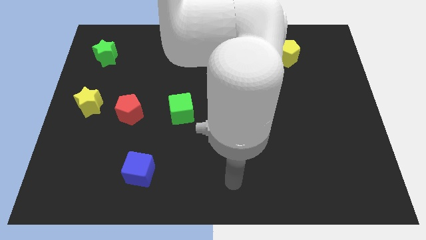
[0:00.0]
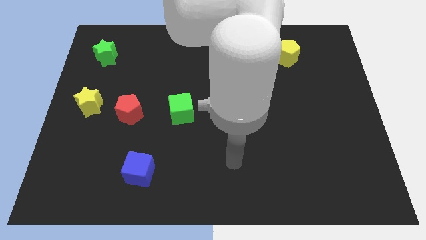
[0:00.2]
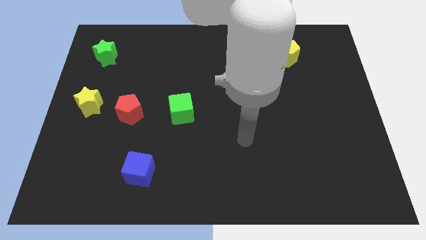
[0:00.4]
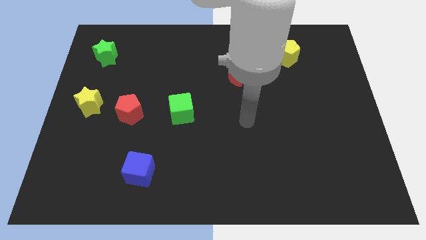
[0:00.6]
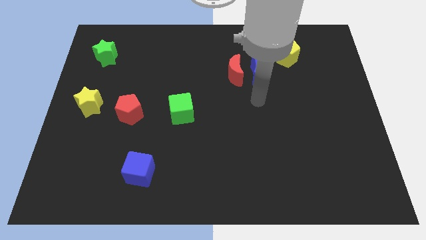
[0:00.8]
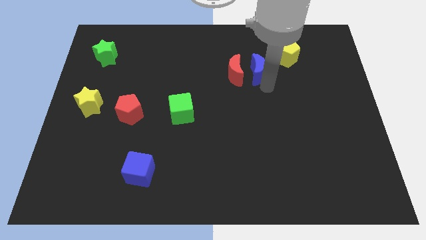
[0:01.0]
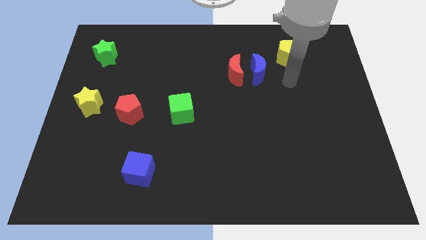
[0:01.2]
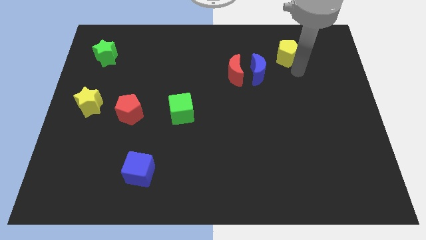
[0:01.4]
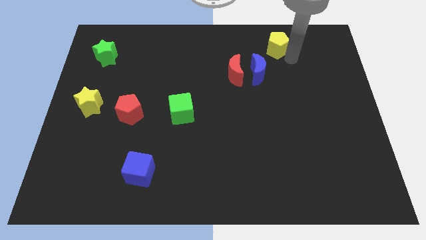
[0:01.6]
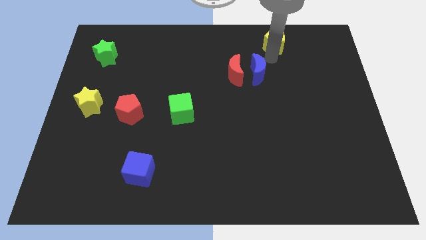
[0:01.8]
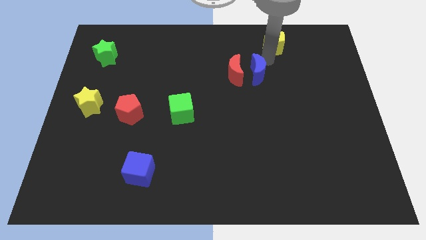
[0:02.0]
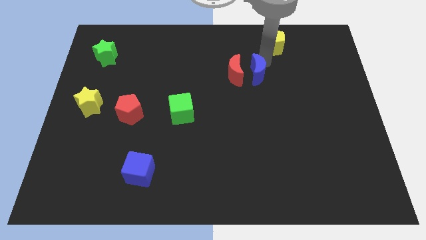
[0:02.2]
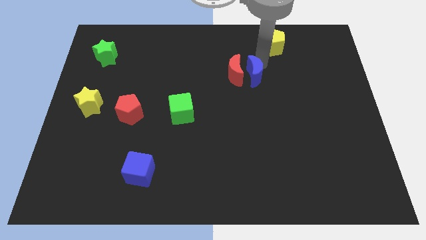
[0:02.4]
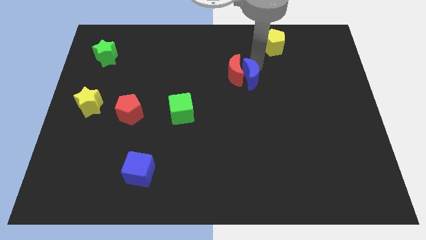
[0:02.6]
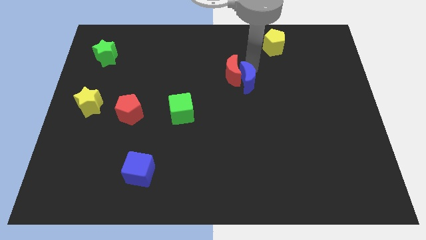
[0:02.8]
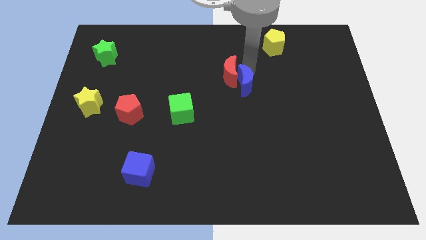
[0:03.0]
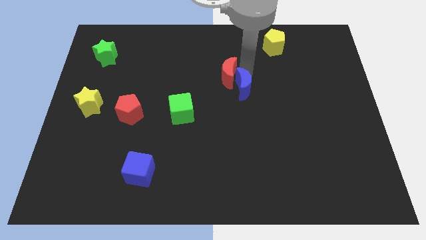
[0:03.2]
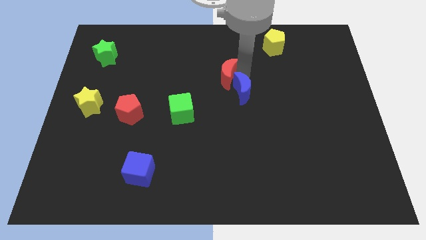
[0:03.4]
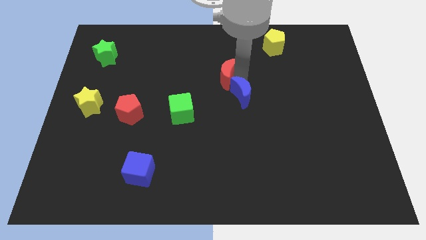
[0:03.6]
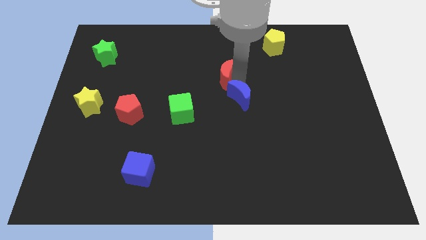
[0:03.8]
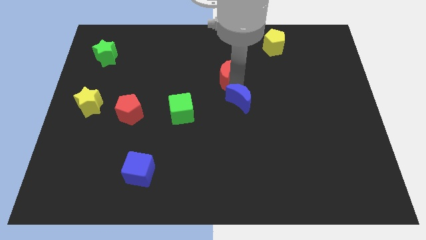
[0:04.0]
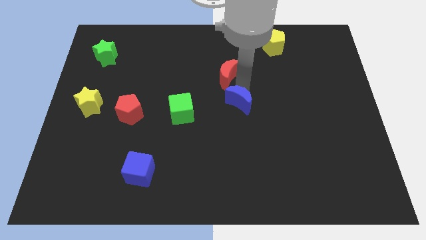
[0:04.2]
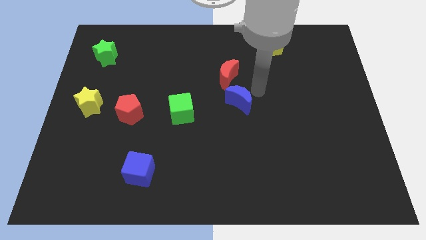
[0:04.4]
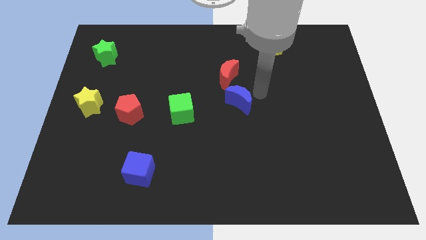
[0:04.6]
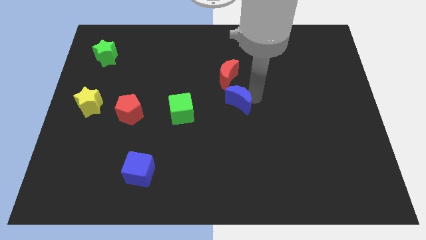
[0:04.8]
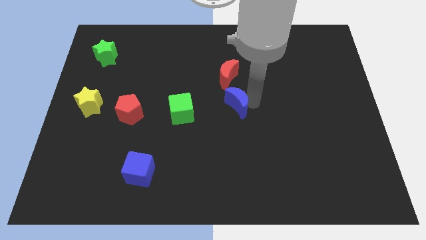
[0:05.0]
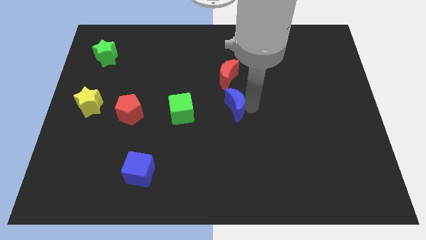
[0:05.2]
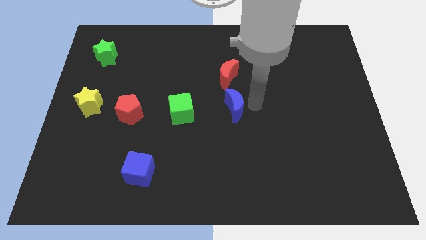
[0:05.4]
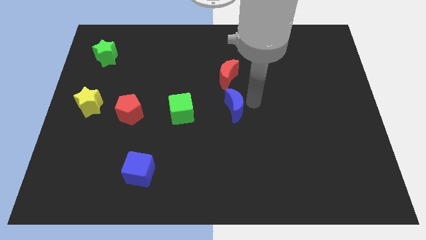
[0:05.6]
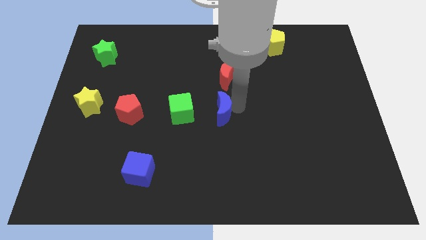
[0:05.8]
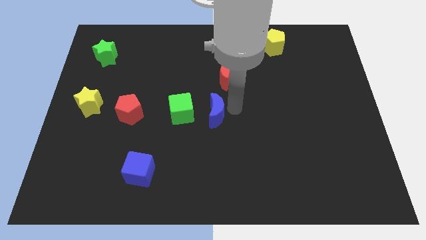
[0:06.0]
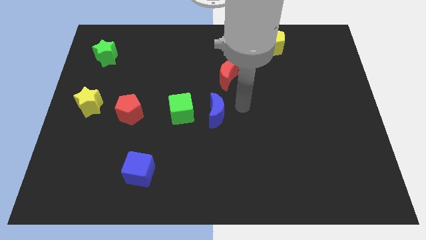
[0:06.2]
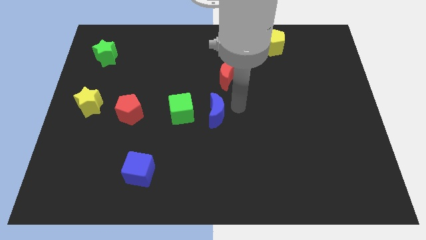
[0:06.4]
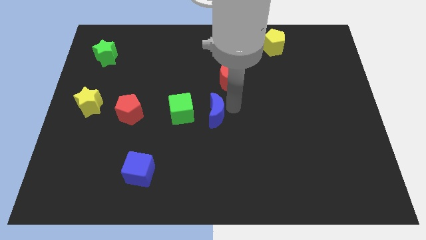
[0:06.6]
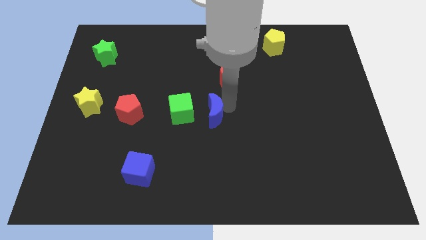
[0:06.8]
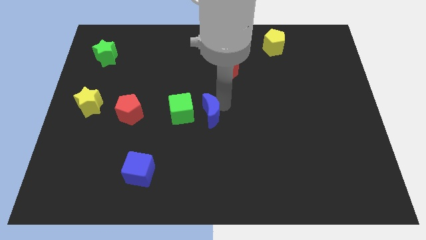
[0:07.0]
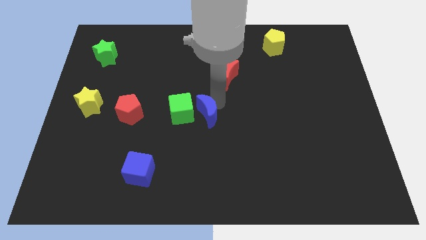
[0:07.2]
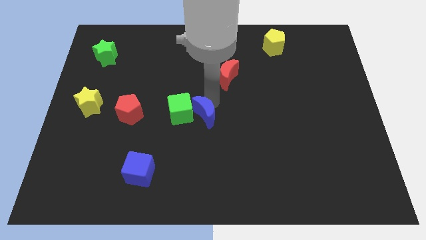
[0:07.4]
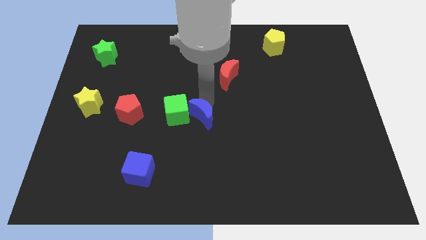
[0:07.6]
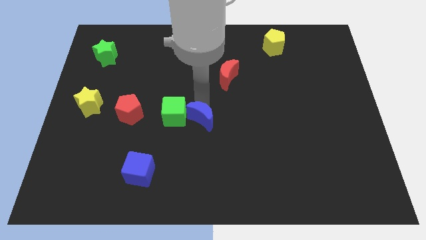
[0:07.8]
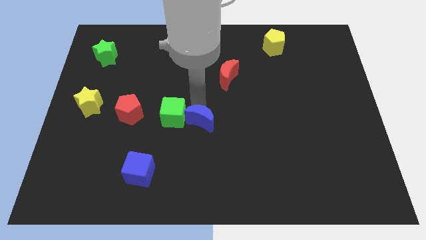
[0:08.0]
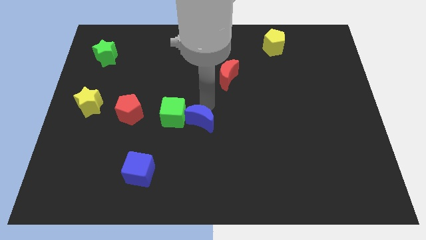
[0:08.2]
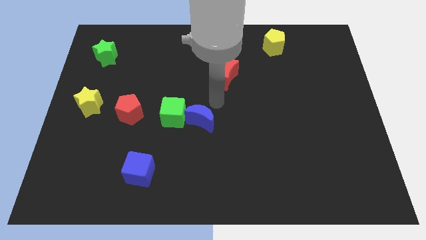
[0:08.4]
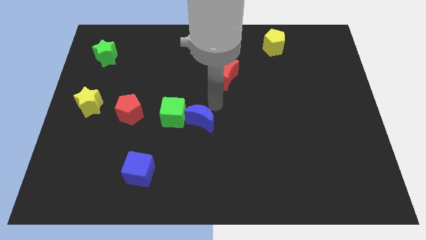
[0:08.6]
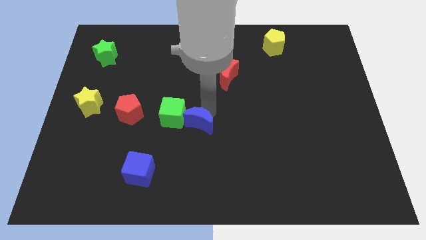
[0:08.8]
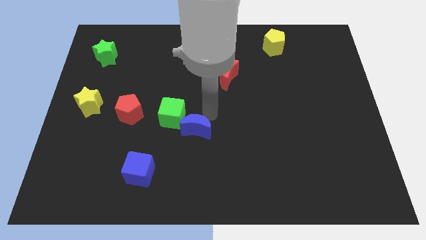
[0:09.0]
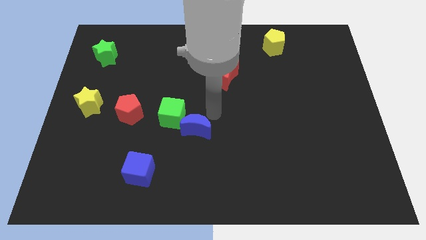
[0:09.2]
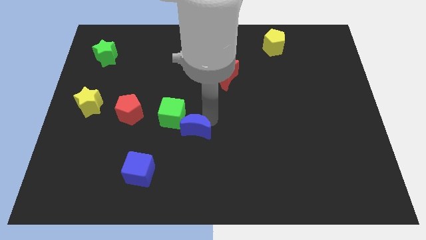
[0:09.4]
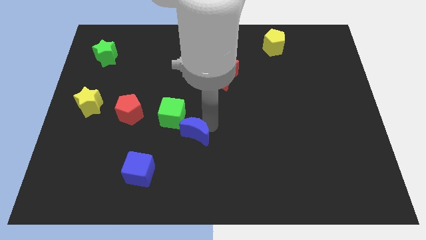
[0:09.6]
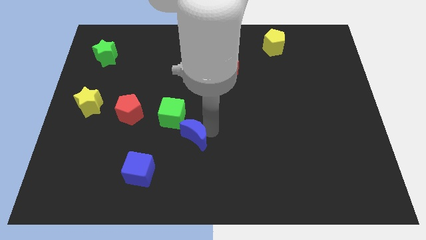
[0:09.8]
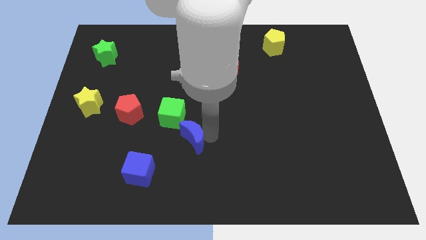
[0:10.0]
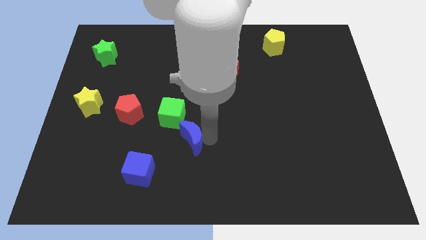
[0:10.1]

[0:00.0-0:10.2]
push the blue moon below the green cube

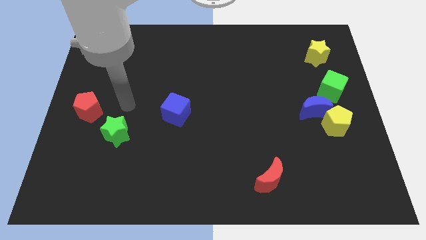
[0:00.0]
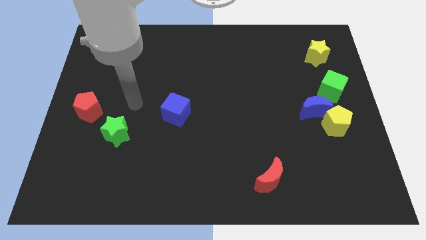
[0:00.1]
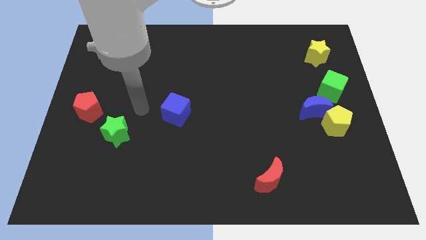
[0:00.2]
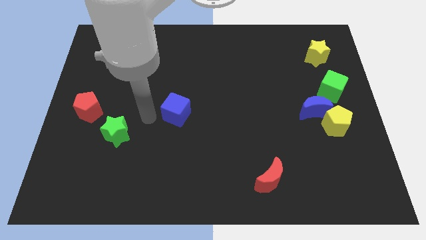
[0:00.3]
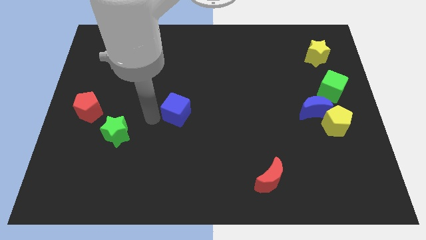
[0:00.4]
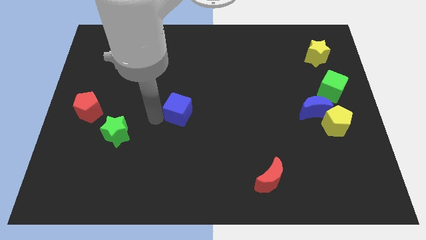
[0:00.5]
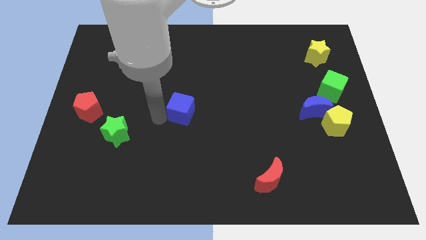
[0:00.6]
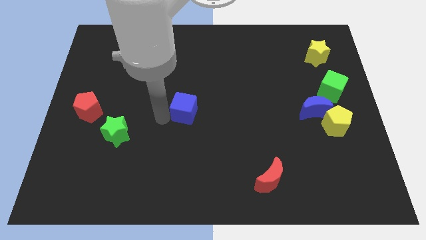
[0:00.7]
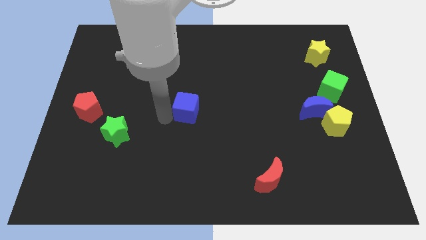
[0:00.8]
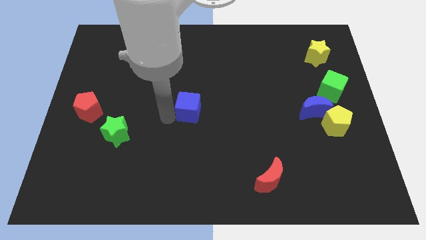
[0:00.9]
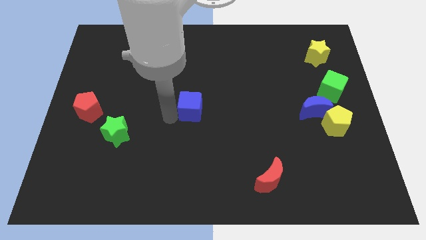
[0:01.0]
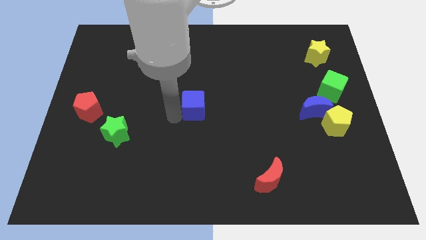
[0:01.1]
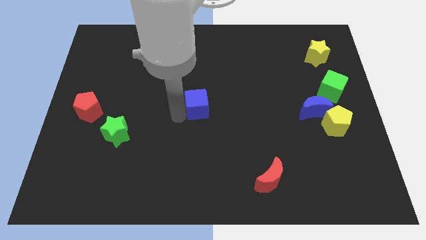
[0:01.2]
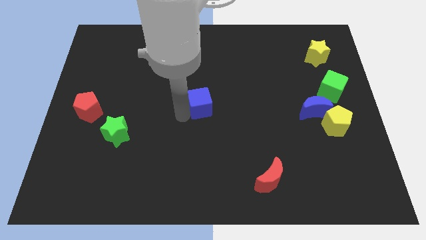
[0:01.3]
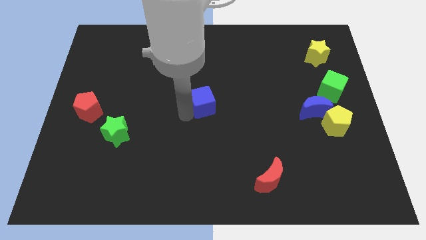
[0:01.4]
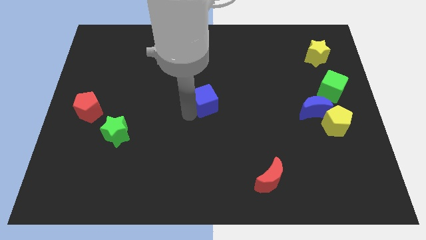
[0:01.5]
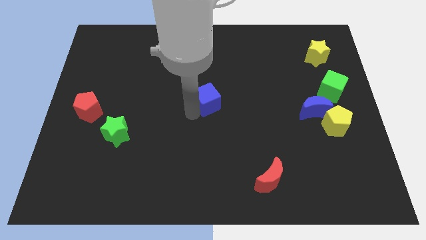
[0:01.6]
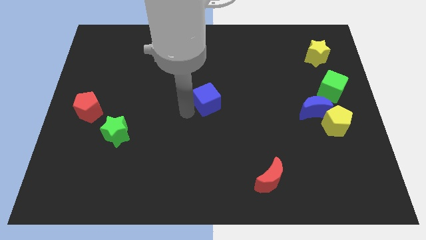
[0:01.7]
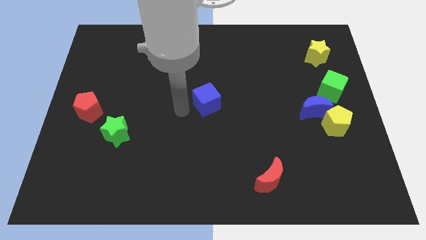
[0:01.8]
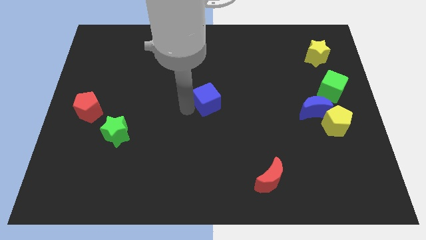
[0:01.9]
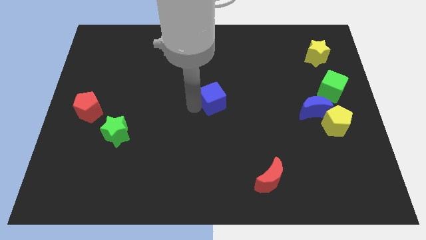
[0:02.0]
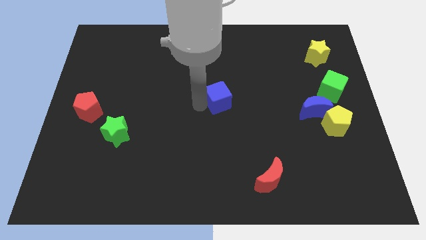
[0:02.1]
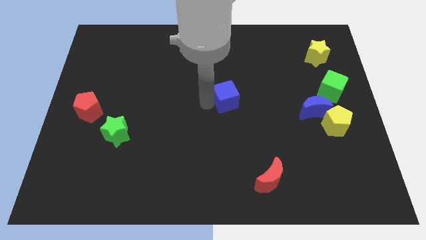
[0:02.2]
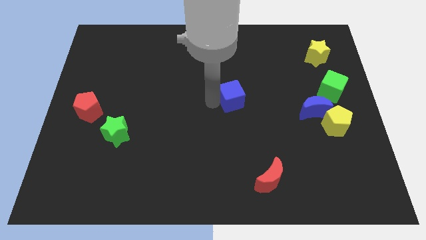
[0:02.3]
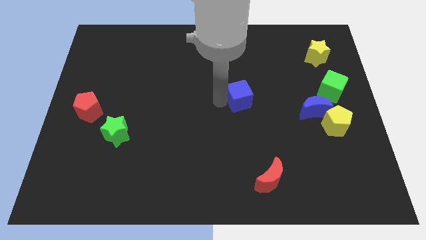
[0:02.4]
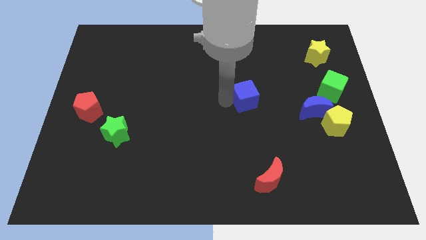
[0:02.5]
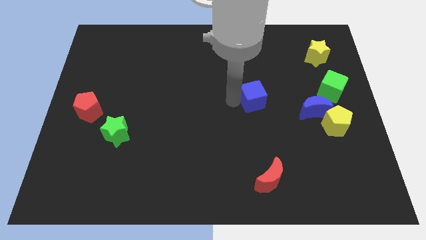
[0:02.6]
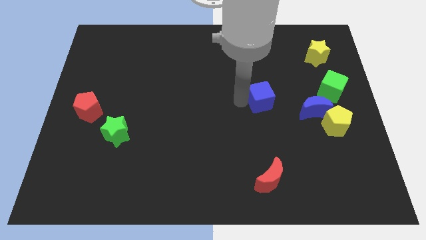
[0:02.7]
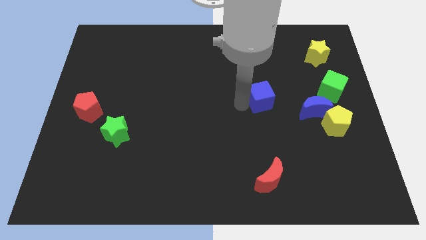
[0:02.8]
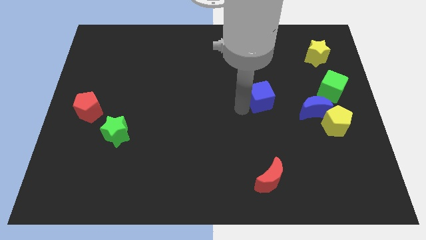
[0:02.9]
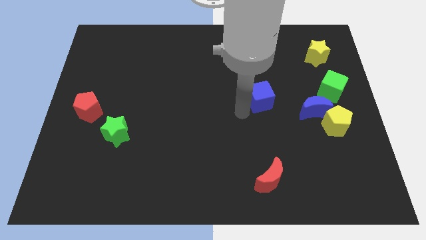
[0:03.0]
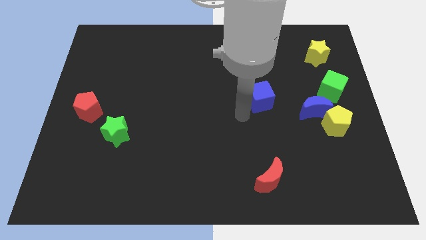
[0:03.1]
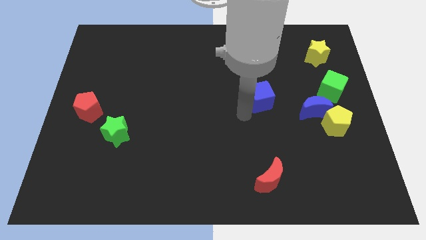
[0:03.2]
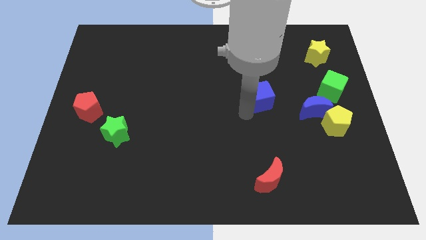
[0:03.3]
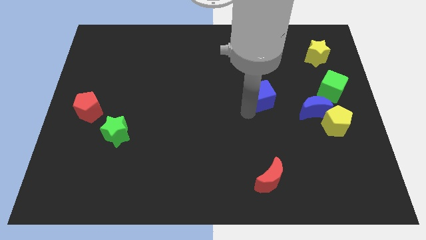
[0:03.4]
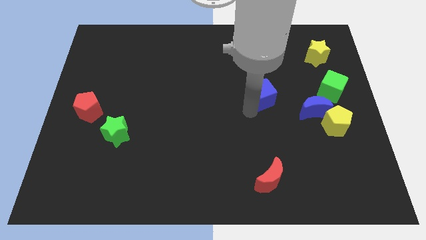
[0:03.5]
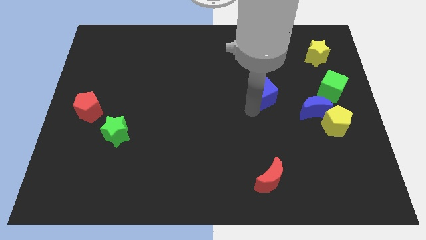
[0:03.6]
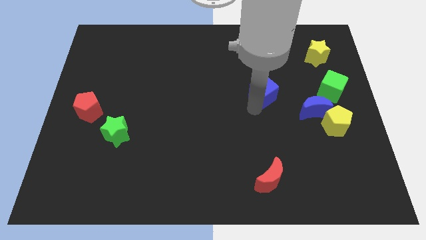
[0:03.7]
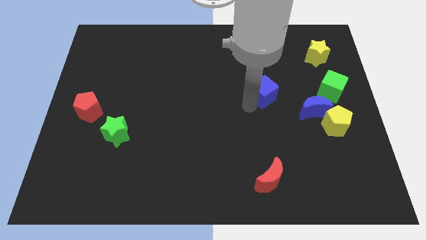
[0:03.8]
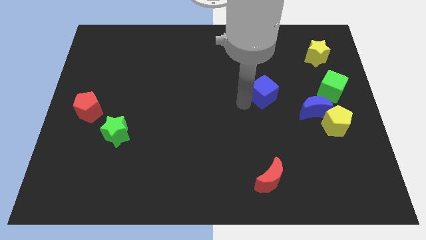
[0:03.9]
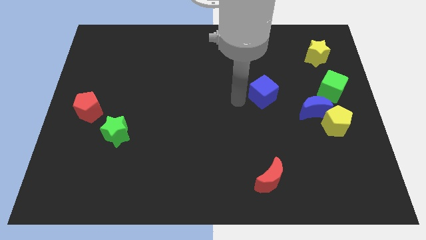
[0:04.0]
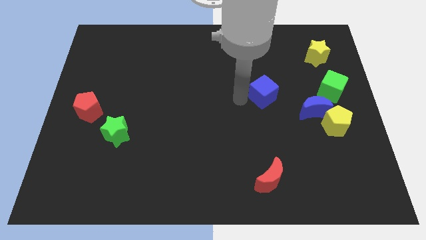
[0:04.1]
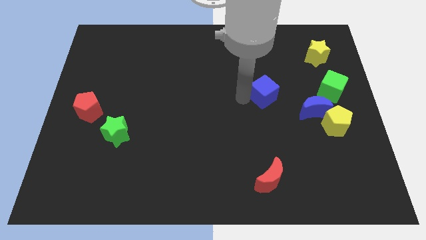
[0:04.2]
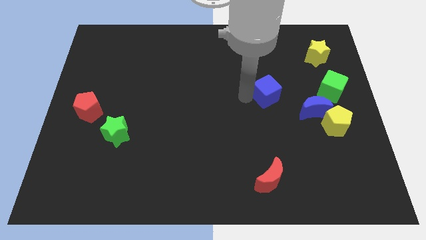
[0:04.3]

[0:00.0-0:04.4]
put the blue cube to the left side of the green cube
